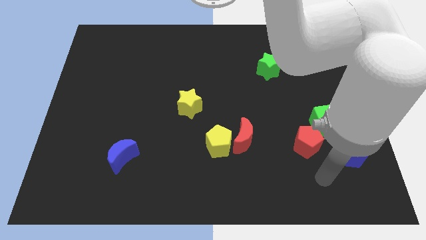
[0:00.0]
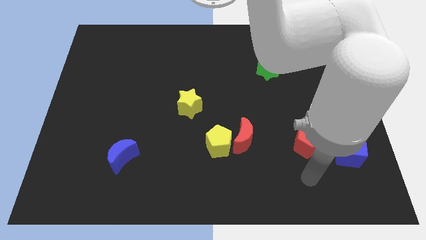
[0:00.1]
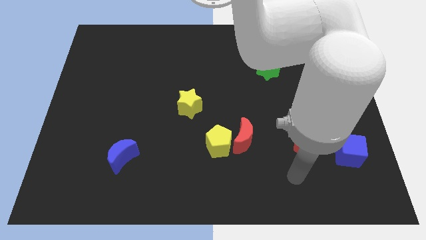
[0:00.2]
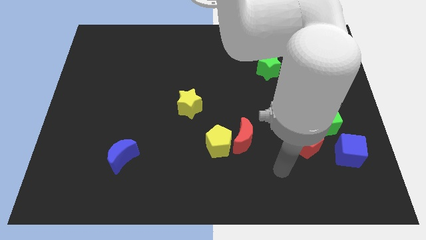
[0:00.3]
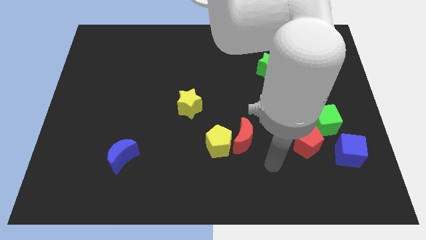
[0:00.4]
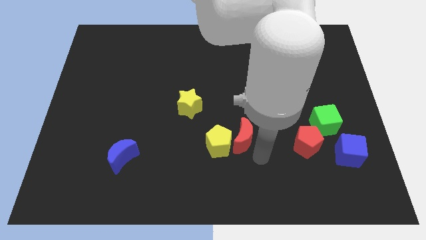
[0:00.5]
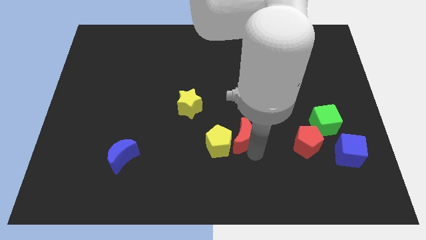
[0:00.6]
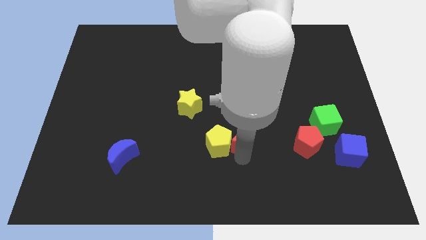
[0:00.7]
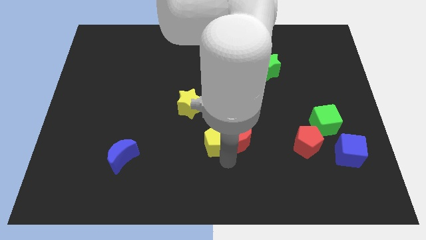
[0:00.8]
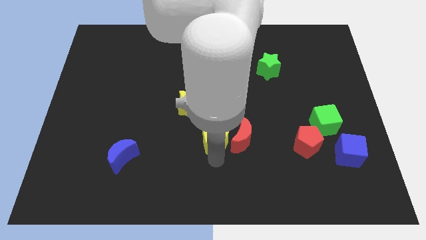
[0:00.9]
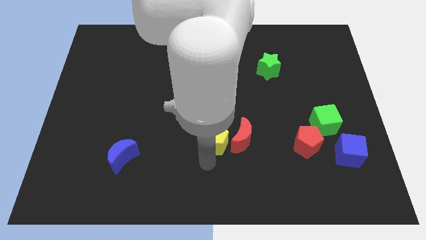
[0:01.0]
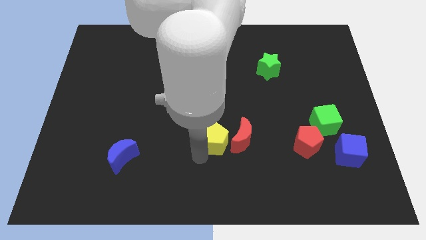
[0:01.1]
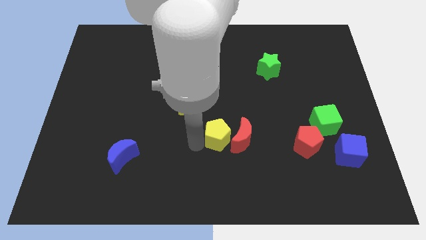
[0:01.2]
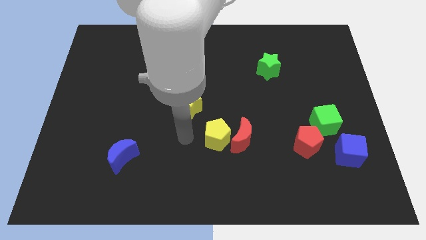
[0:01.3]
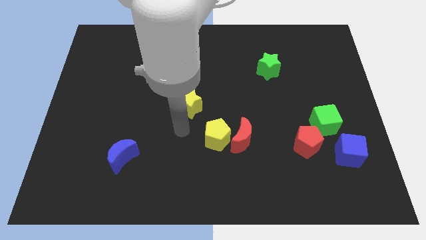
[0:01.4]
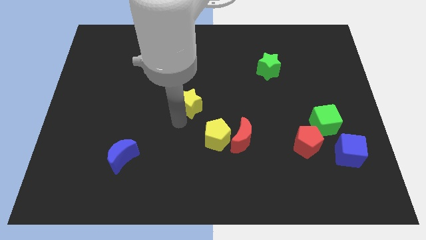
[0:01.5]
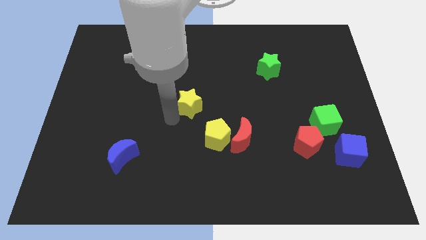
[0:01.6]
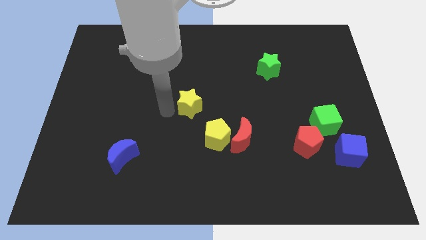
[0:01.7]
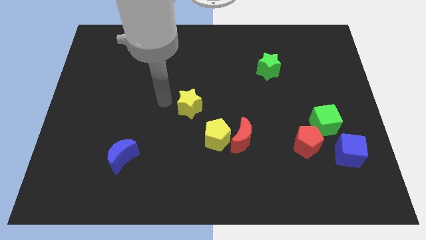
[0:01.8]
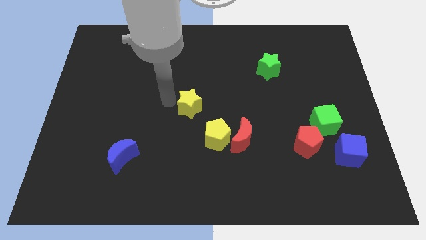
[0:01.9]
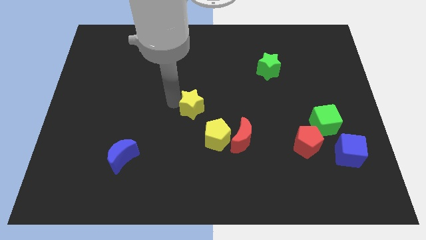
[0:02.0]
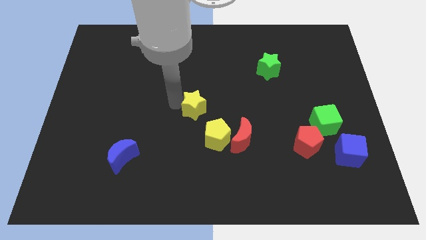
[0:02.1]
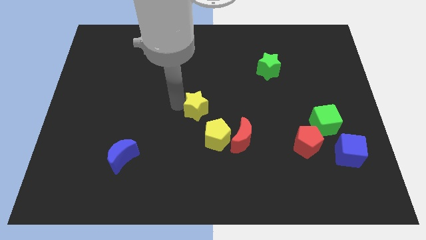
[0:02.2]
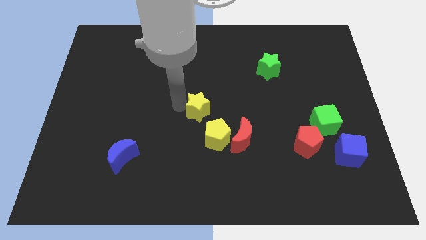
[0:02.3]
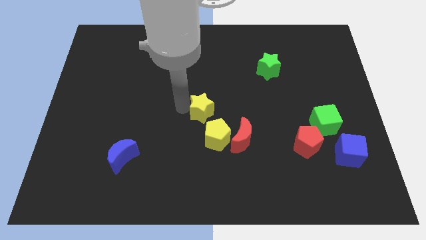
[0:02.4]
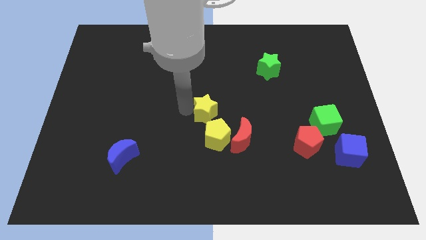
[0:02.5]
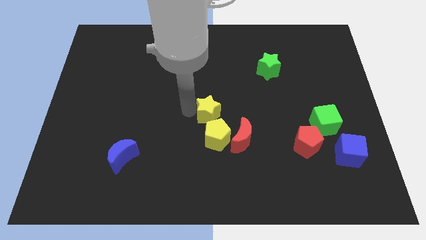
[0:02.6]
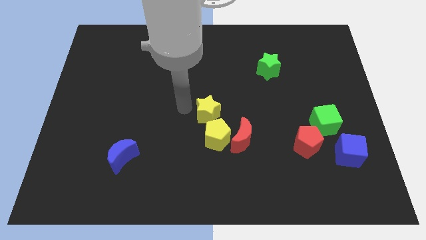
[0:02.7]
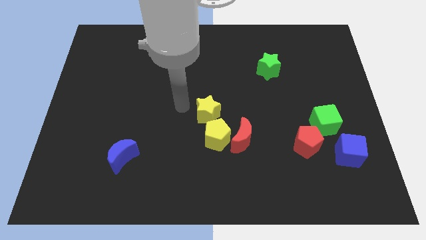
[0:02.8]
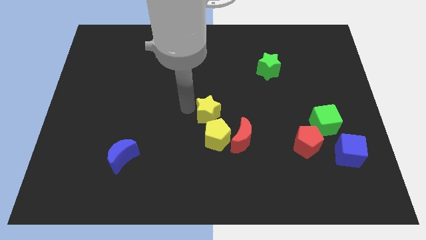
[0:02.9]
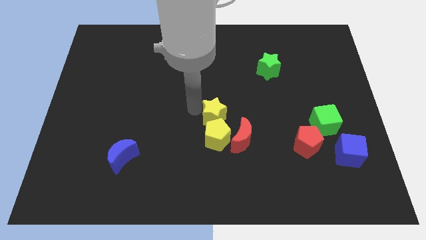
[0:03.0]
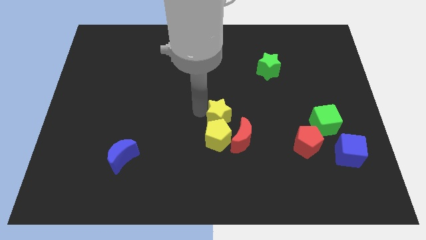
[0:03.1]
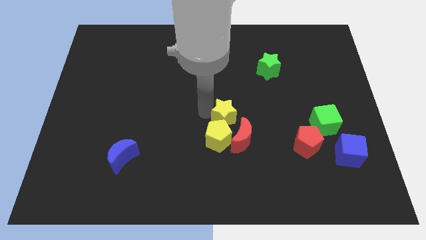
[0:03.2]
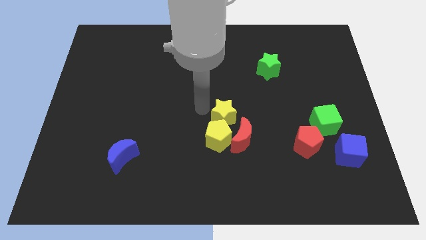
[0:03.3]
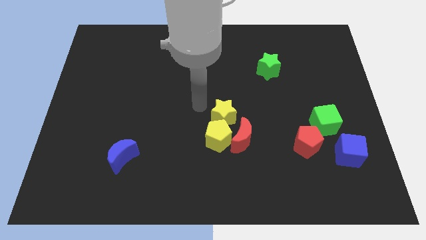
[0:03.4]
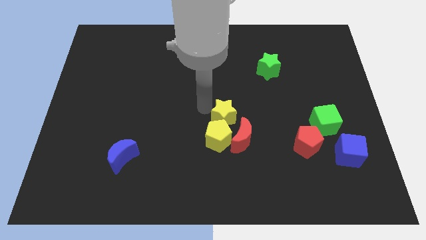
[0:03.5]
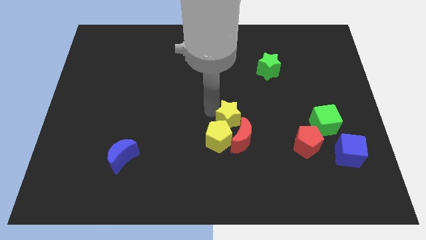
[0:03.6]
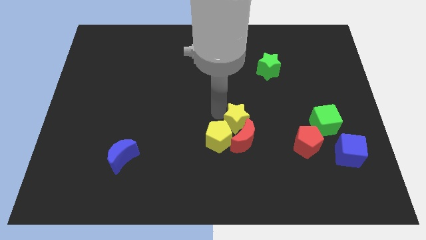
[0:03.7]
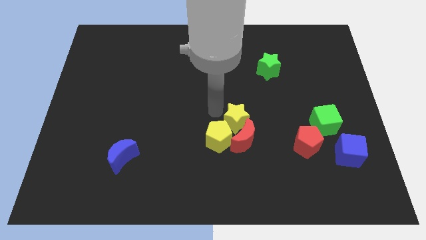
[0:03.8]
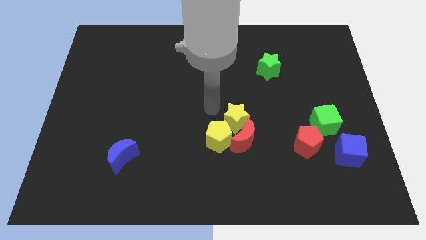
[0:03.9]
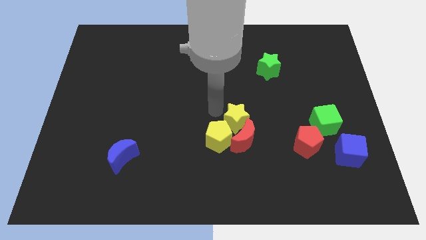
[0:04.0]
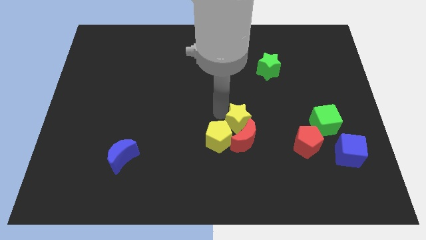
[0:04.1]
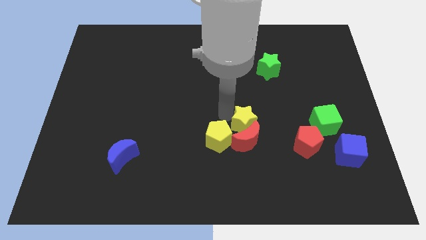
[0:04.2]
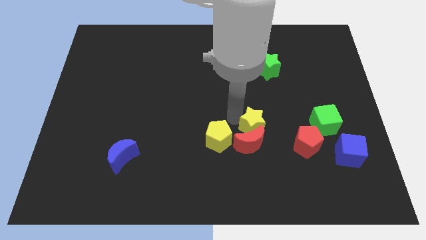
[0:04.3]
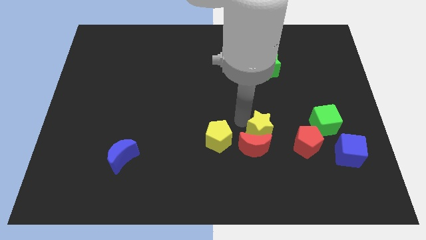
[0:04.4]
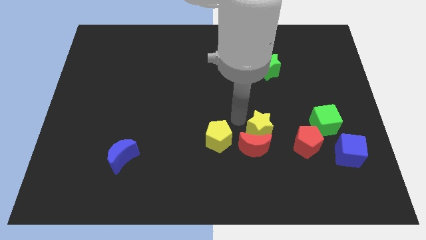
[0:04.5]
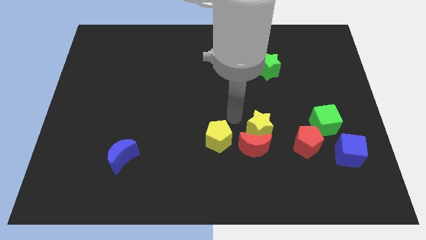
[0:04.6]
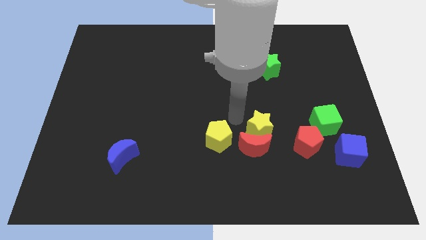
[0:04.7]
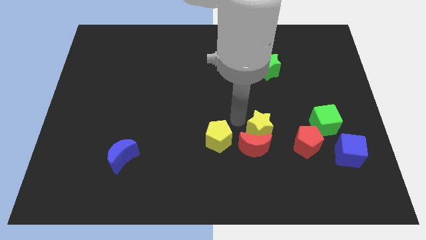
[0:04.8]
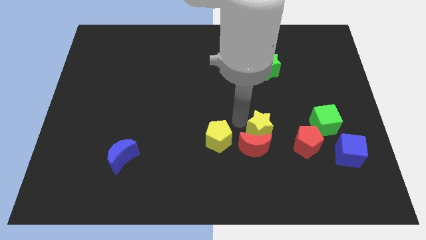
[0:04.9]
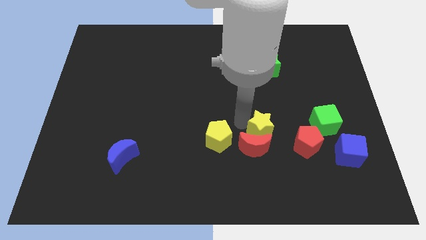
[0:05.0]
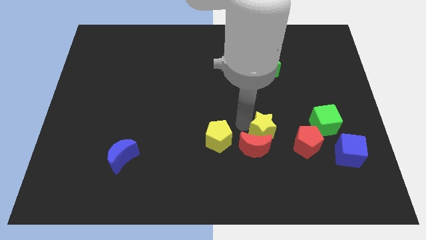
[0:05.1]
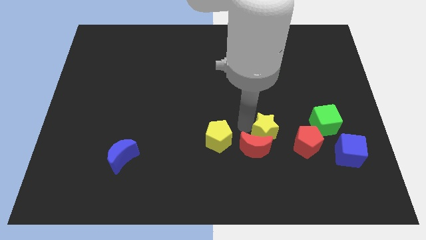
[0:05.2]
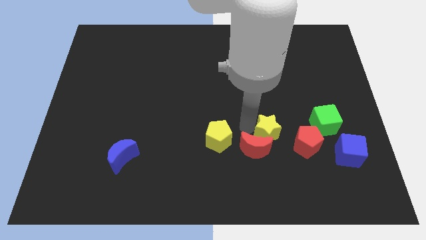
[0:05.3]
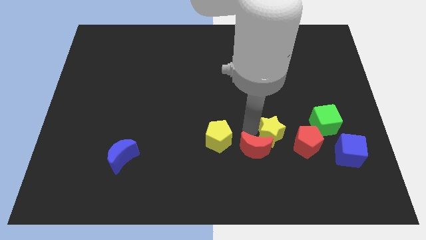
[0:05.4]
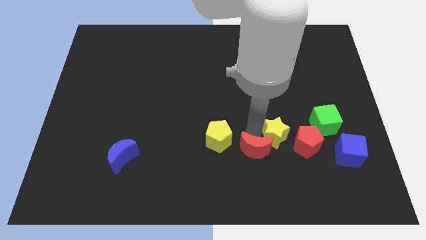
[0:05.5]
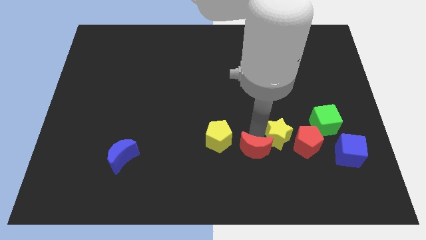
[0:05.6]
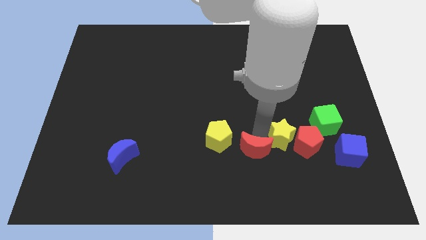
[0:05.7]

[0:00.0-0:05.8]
move the yellow star towards the red pentagon

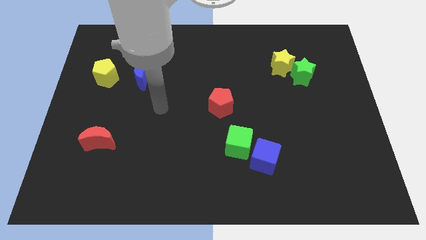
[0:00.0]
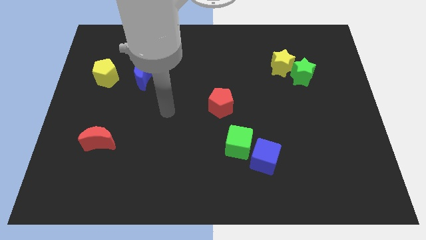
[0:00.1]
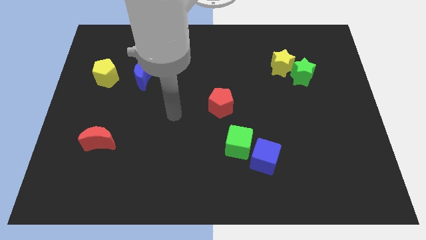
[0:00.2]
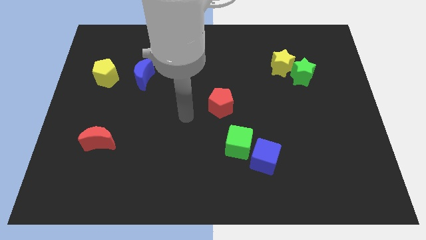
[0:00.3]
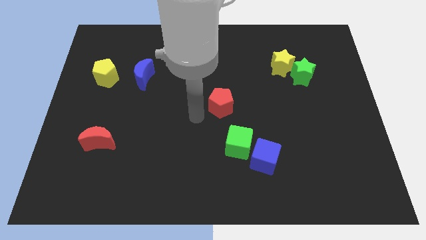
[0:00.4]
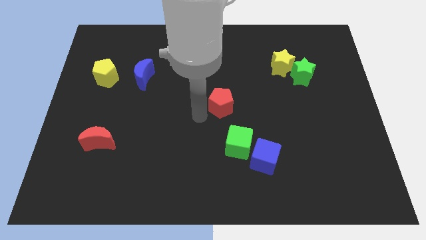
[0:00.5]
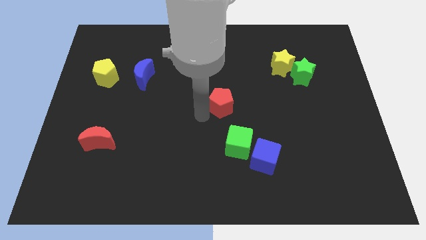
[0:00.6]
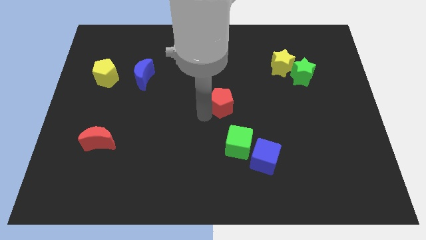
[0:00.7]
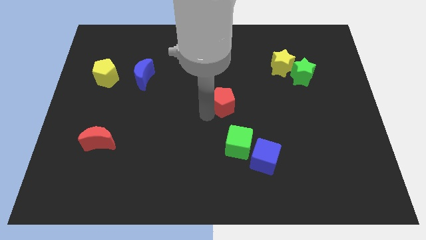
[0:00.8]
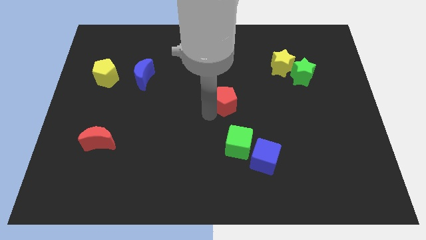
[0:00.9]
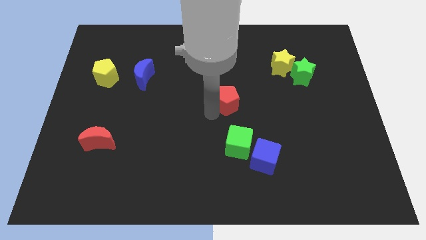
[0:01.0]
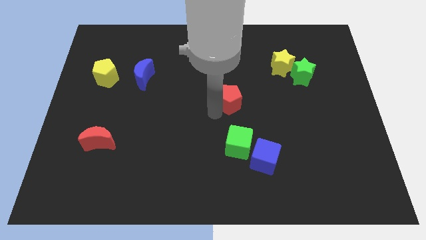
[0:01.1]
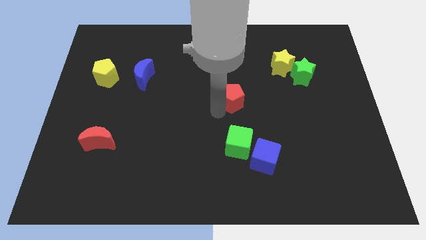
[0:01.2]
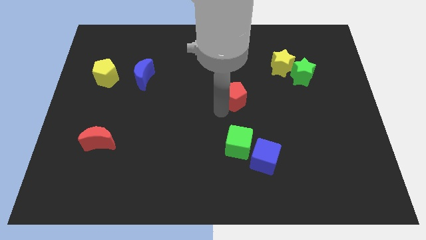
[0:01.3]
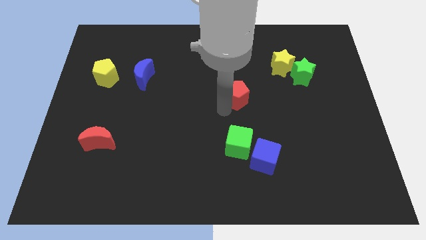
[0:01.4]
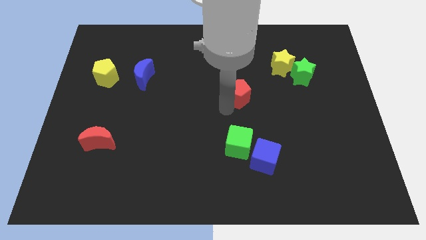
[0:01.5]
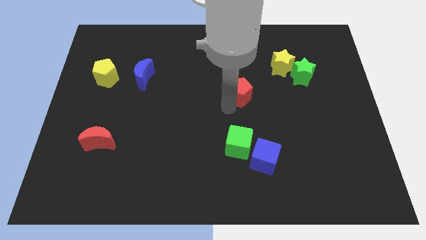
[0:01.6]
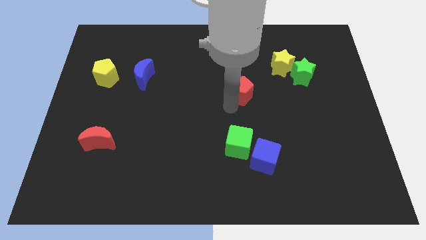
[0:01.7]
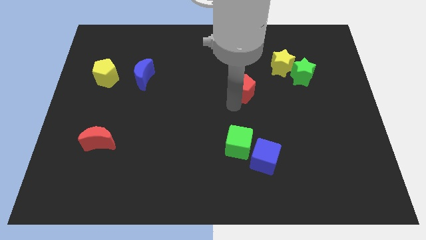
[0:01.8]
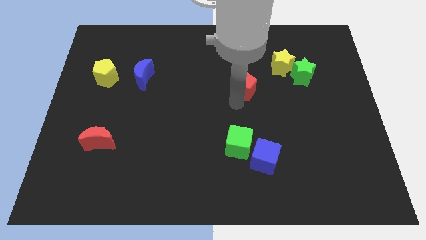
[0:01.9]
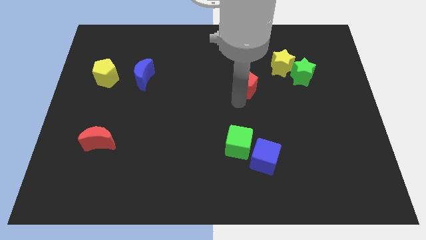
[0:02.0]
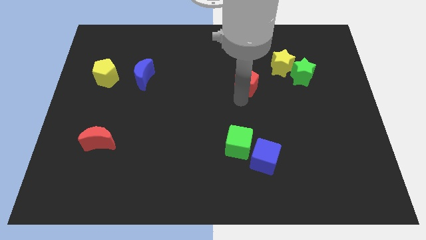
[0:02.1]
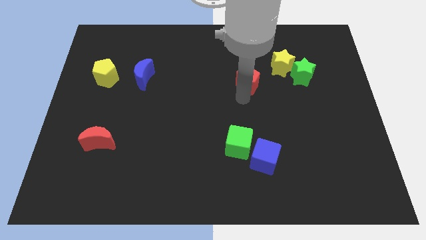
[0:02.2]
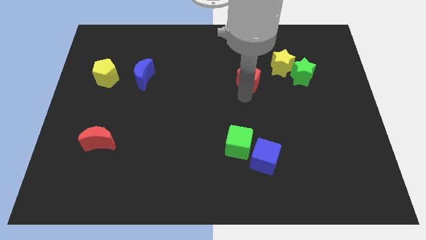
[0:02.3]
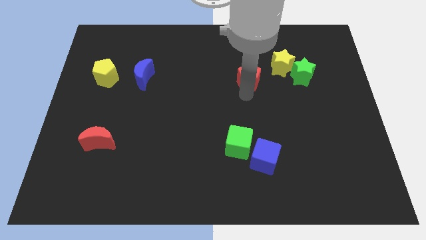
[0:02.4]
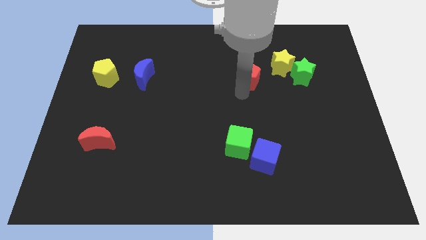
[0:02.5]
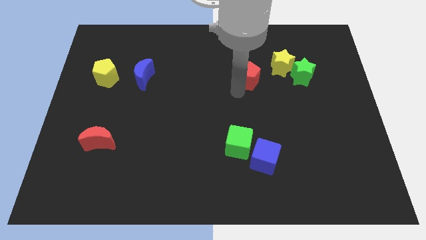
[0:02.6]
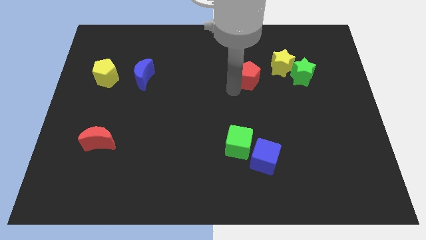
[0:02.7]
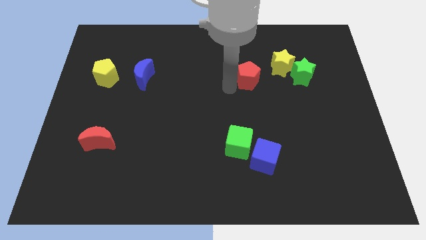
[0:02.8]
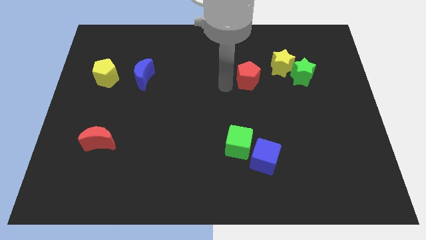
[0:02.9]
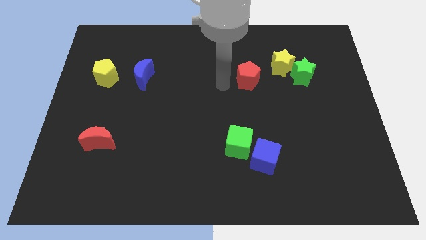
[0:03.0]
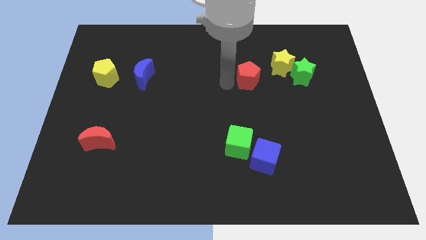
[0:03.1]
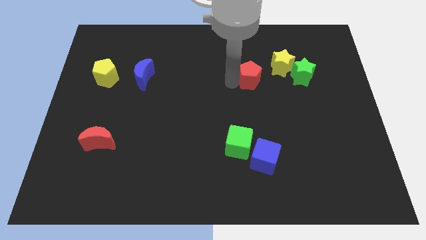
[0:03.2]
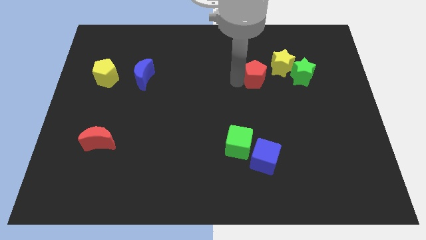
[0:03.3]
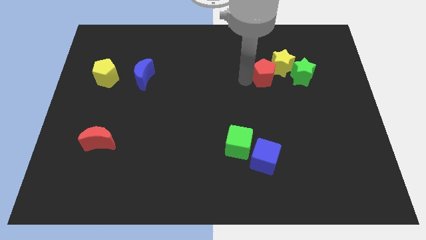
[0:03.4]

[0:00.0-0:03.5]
slide the red pentagon towards the yellow star
